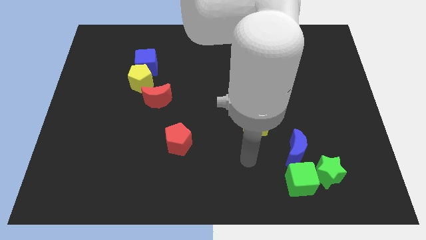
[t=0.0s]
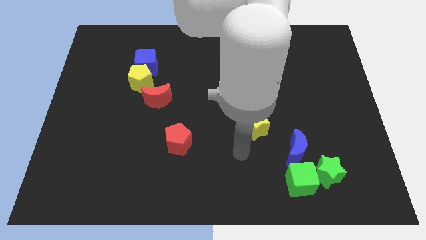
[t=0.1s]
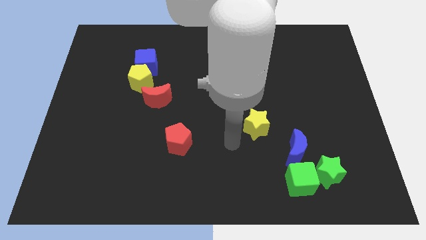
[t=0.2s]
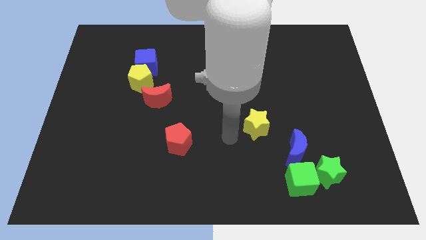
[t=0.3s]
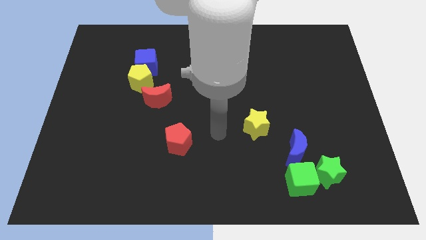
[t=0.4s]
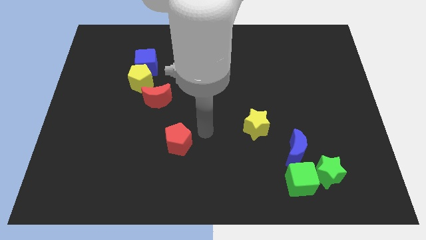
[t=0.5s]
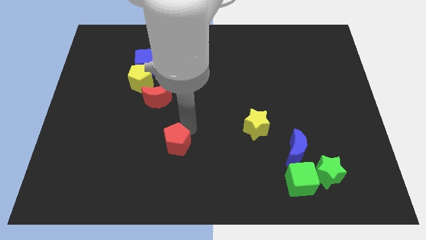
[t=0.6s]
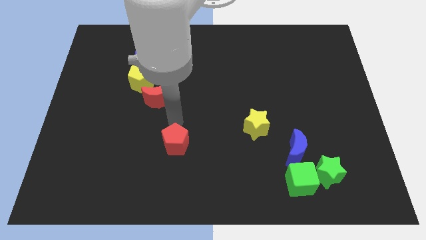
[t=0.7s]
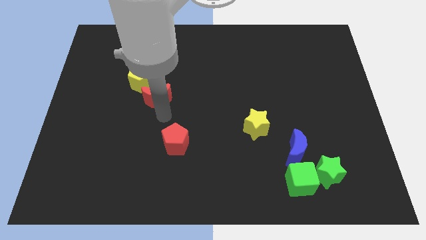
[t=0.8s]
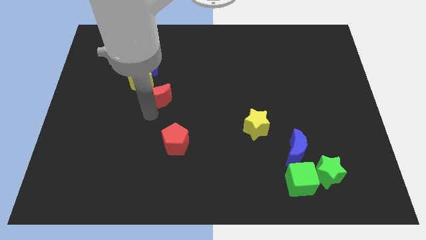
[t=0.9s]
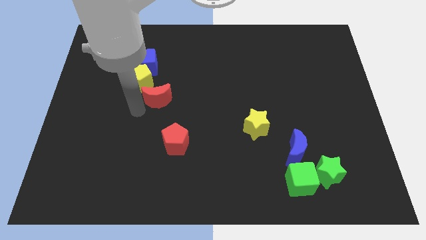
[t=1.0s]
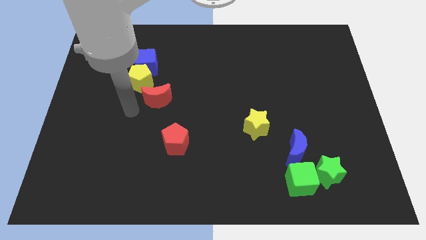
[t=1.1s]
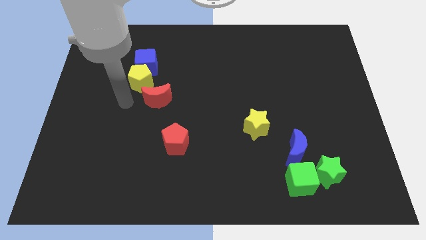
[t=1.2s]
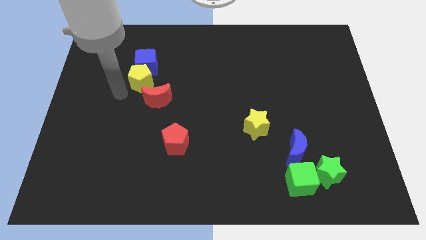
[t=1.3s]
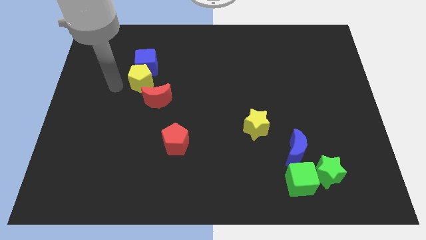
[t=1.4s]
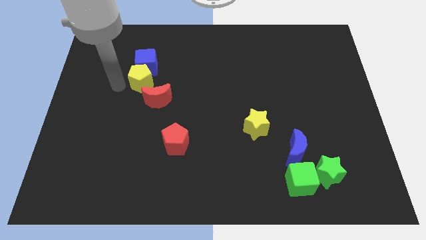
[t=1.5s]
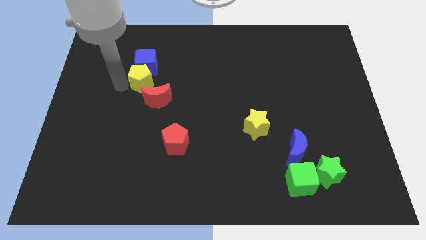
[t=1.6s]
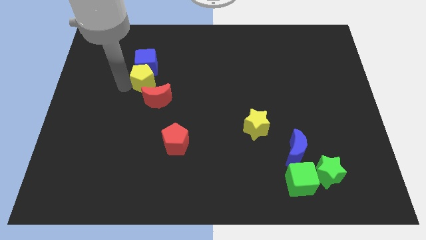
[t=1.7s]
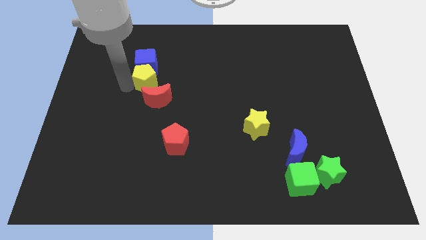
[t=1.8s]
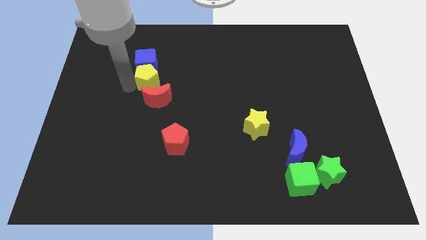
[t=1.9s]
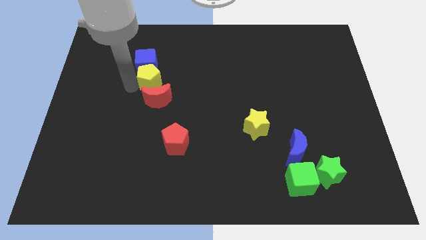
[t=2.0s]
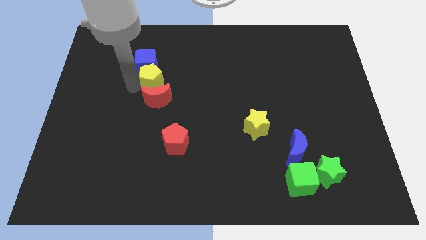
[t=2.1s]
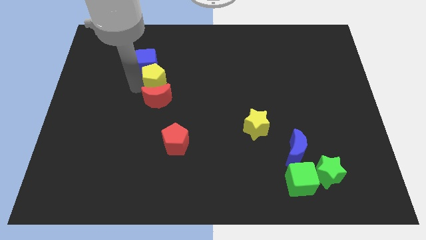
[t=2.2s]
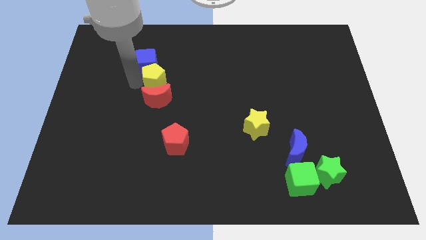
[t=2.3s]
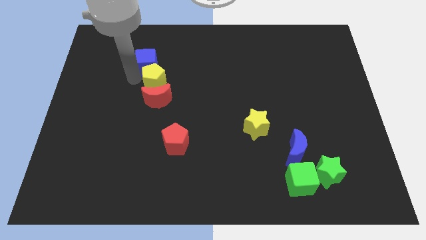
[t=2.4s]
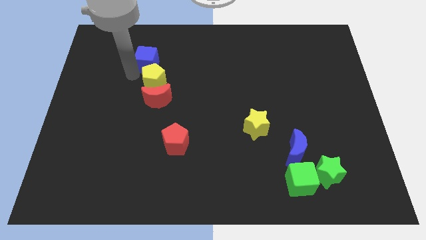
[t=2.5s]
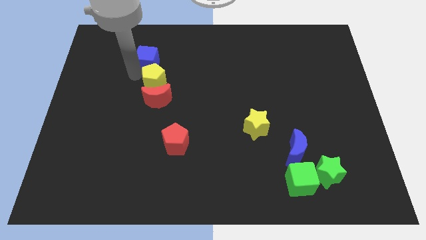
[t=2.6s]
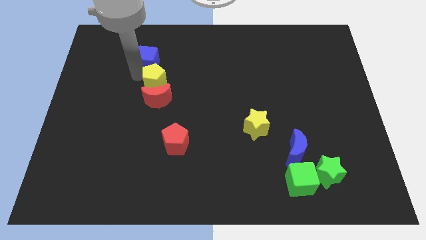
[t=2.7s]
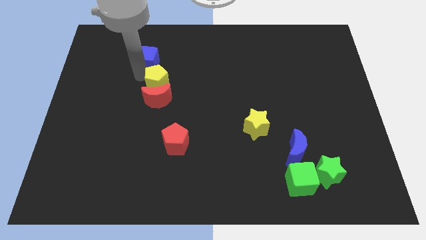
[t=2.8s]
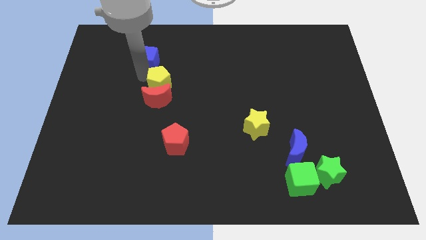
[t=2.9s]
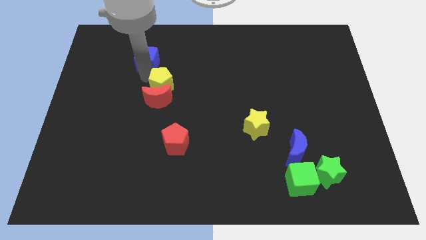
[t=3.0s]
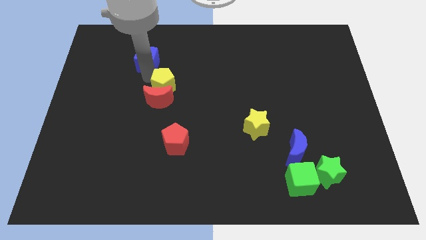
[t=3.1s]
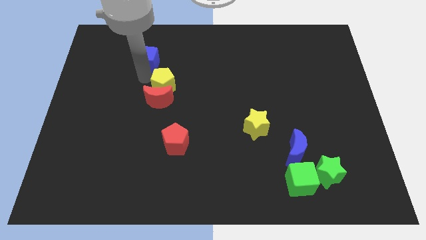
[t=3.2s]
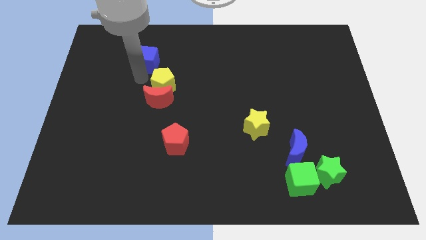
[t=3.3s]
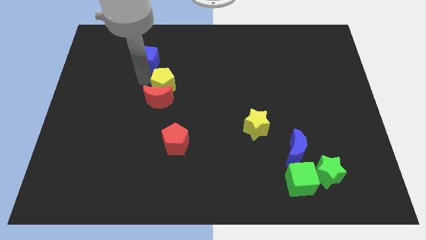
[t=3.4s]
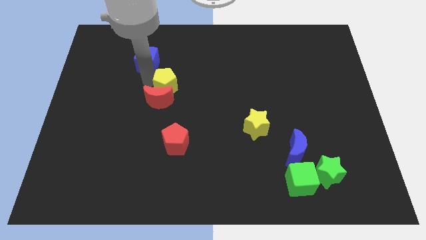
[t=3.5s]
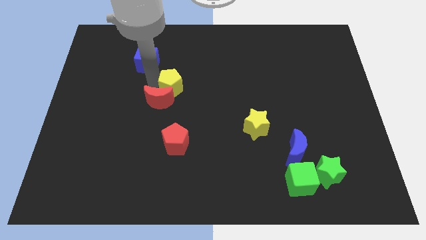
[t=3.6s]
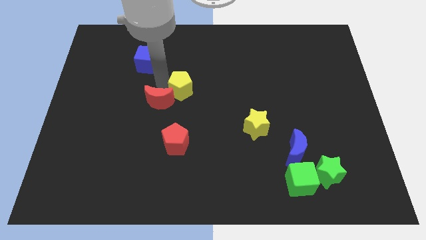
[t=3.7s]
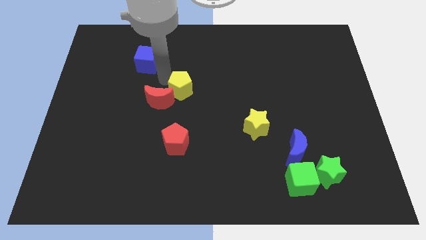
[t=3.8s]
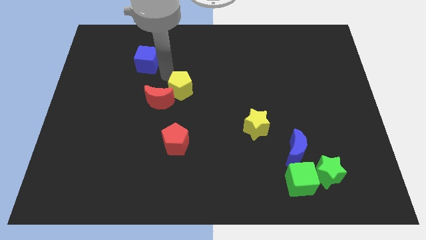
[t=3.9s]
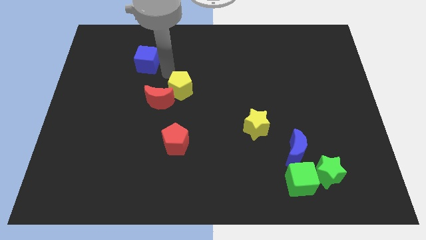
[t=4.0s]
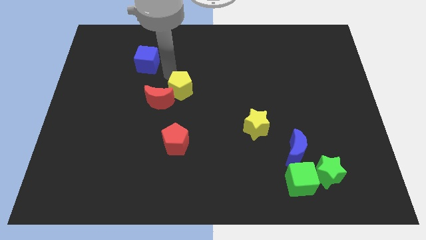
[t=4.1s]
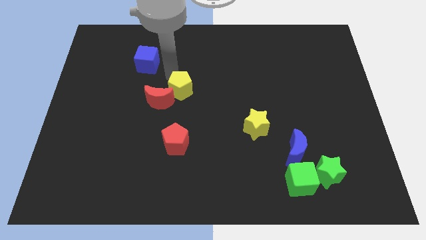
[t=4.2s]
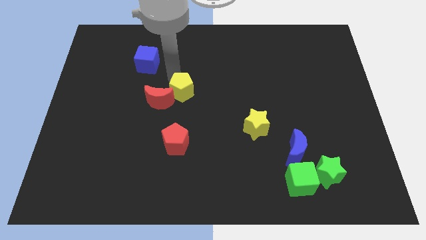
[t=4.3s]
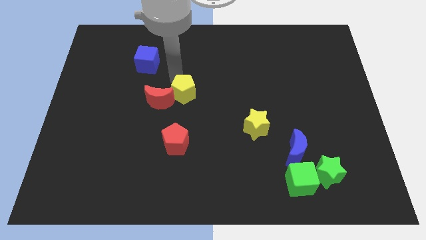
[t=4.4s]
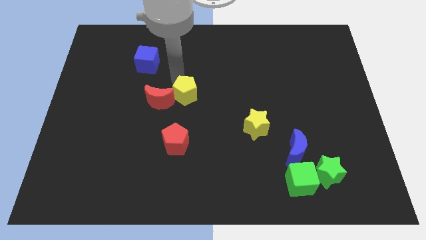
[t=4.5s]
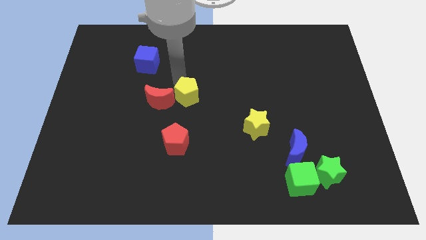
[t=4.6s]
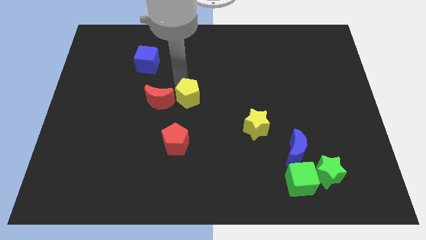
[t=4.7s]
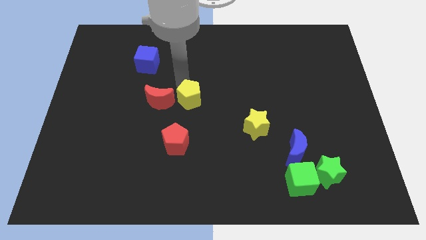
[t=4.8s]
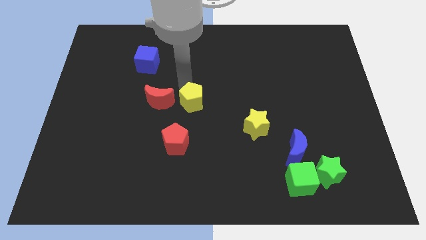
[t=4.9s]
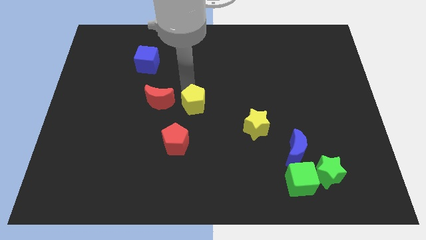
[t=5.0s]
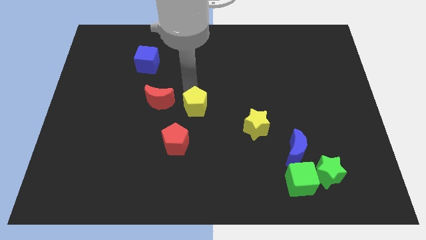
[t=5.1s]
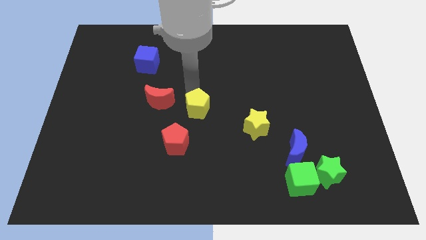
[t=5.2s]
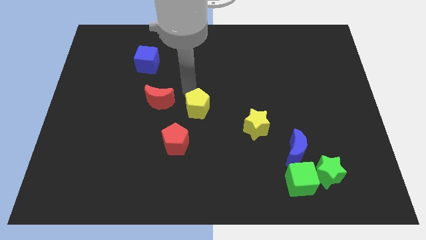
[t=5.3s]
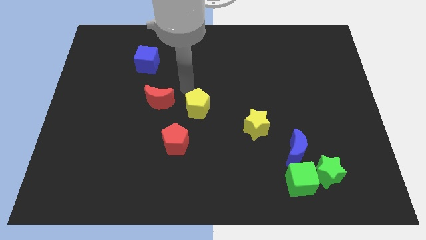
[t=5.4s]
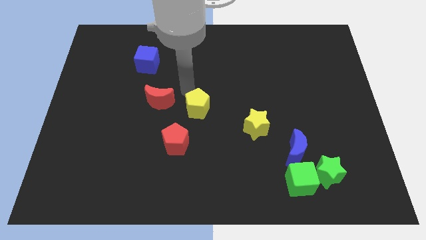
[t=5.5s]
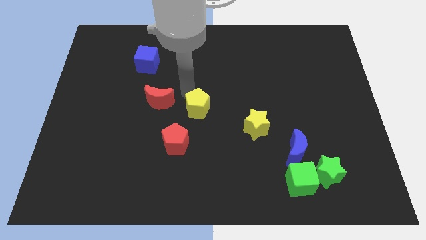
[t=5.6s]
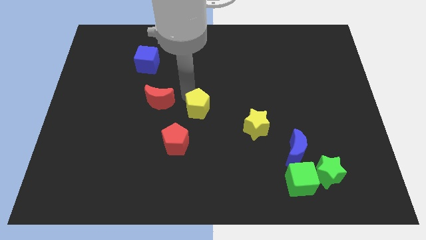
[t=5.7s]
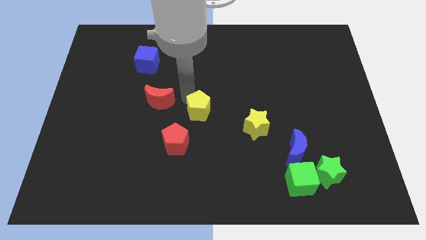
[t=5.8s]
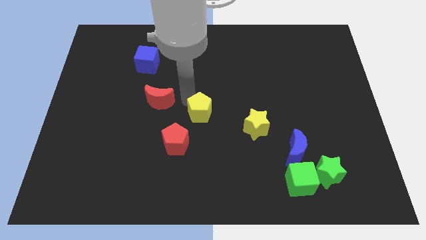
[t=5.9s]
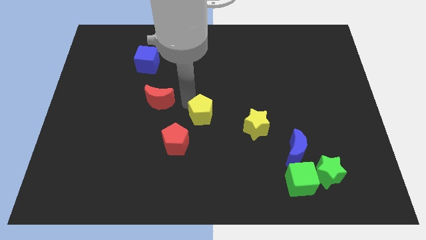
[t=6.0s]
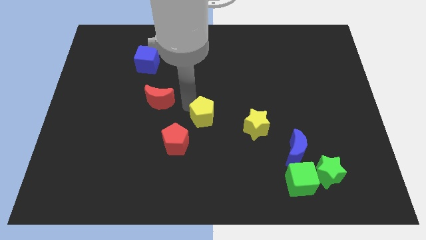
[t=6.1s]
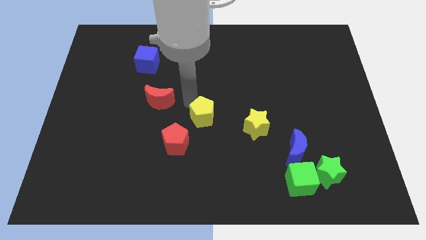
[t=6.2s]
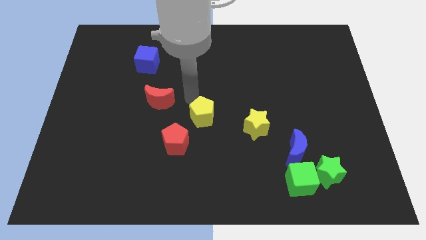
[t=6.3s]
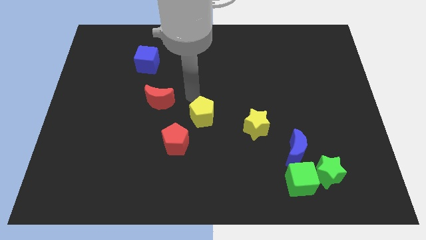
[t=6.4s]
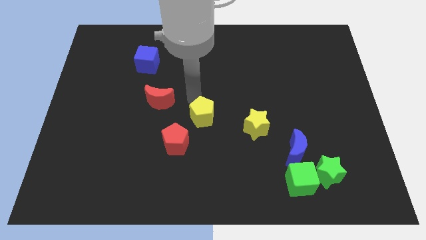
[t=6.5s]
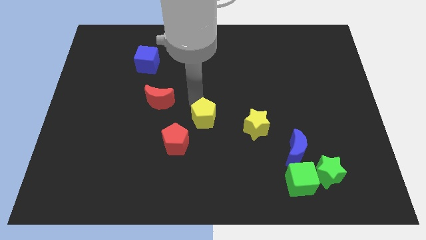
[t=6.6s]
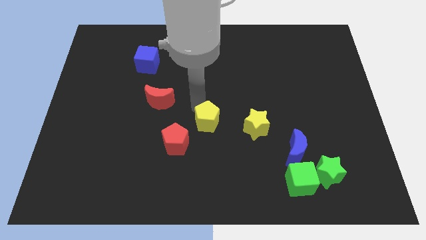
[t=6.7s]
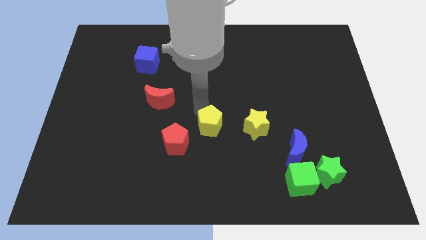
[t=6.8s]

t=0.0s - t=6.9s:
push the yellow pentagon diagonally down and to the right

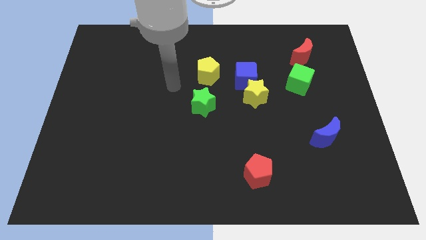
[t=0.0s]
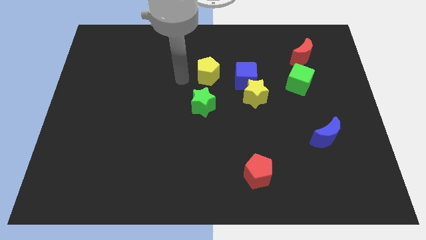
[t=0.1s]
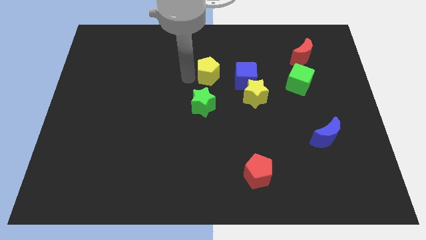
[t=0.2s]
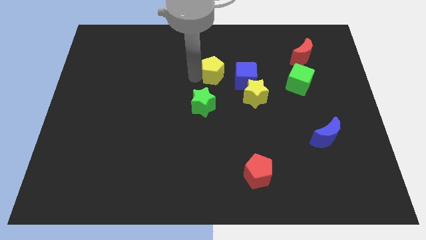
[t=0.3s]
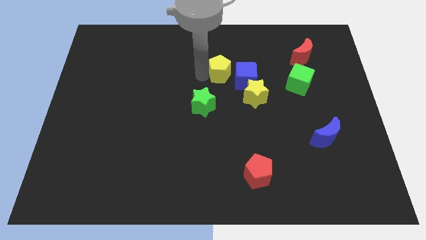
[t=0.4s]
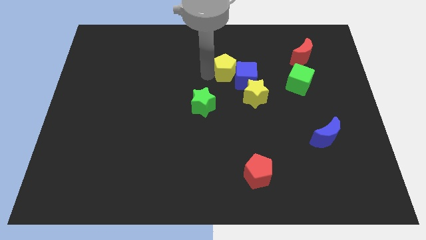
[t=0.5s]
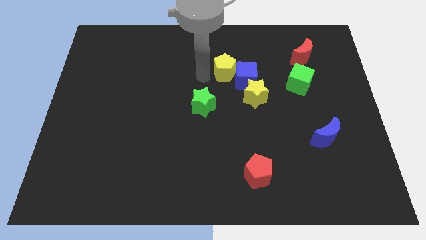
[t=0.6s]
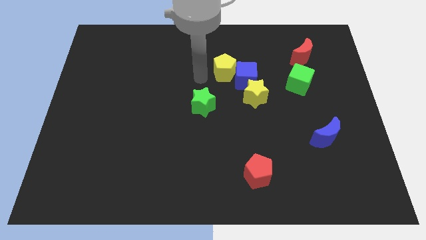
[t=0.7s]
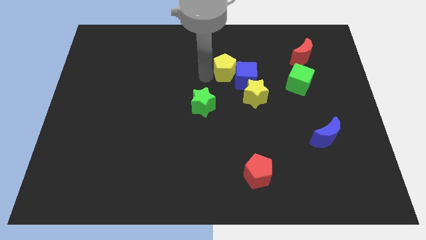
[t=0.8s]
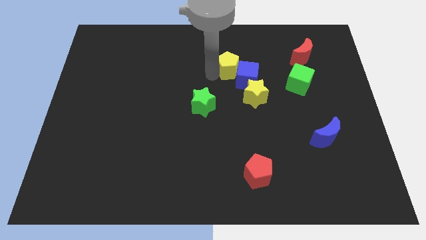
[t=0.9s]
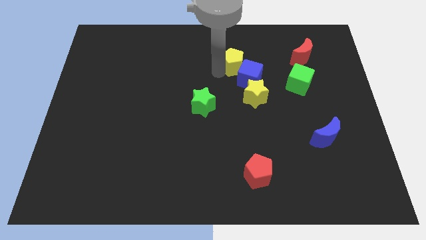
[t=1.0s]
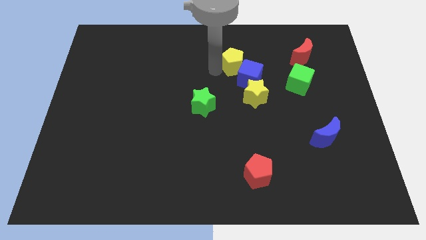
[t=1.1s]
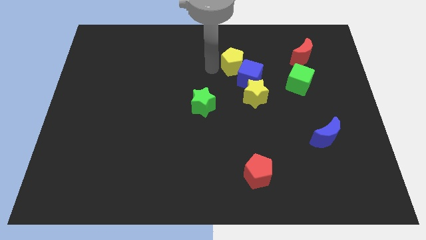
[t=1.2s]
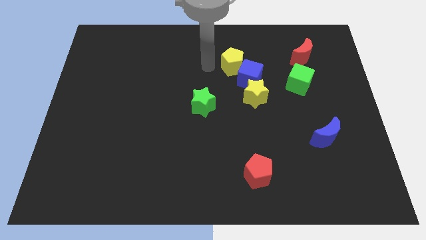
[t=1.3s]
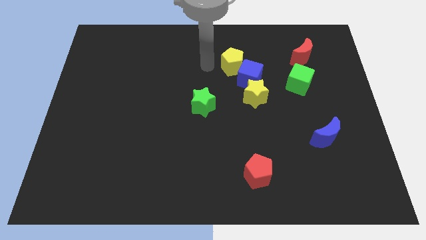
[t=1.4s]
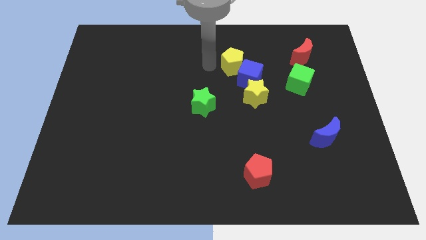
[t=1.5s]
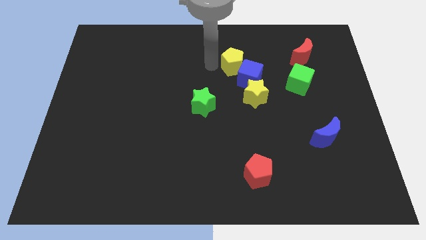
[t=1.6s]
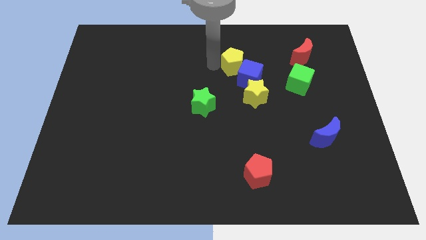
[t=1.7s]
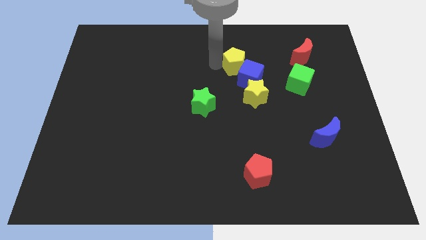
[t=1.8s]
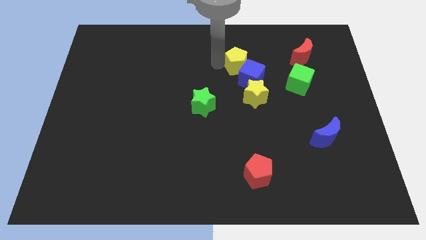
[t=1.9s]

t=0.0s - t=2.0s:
slightly slide the yellow pentagon right
